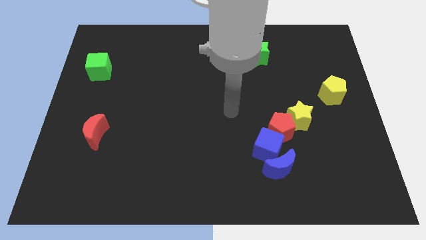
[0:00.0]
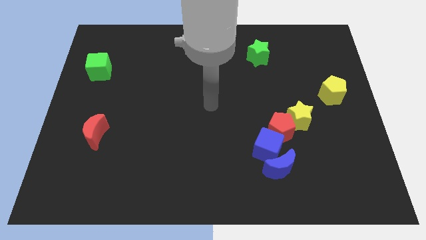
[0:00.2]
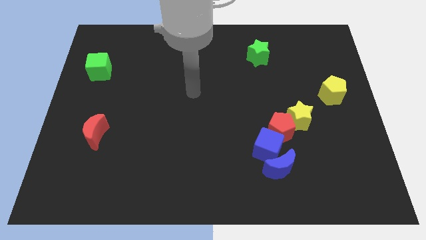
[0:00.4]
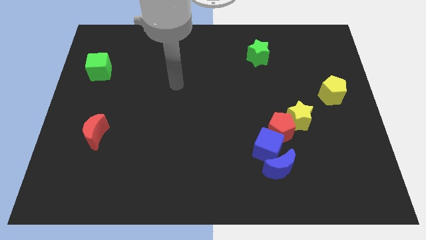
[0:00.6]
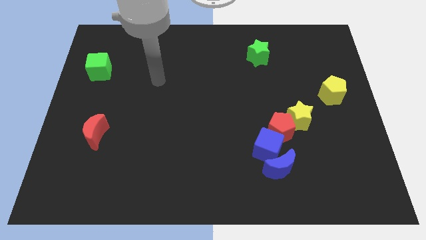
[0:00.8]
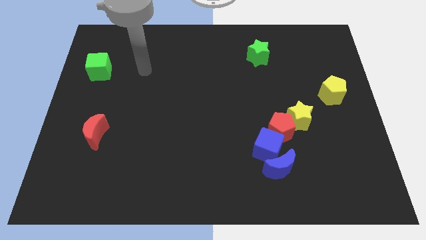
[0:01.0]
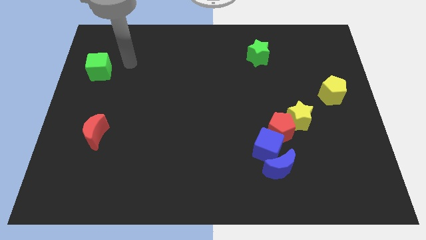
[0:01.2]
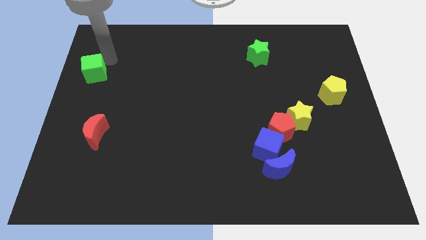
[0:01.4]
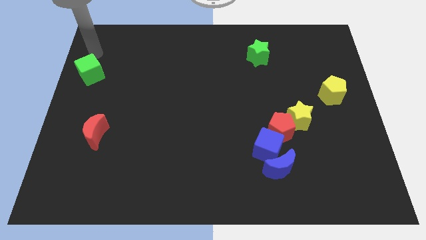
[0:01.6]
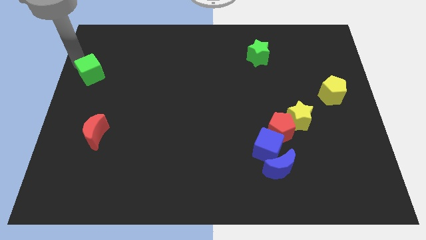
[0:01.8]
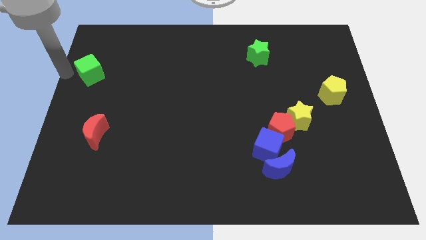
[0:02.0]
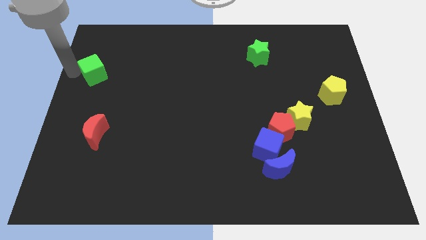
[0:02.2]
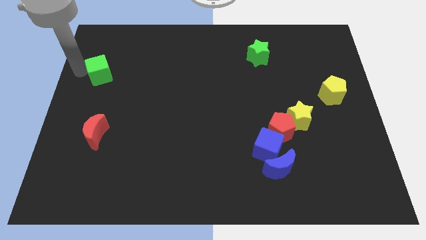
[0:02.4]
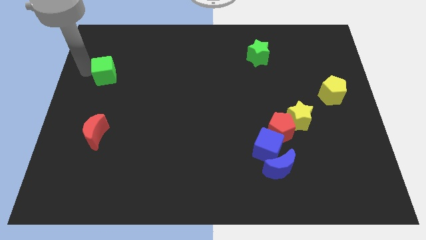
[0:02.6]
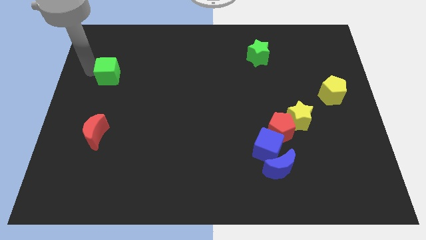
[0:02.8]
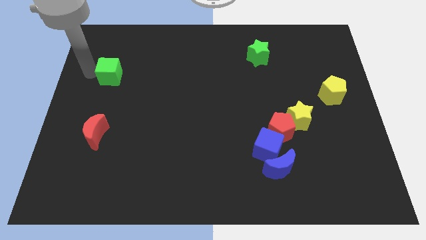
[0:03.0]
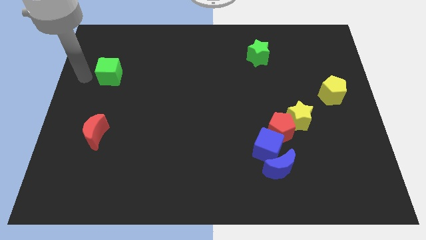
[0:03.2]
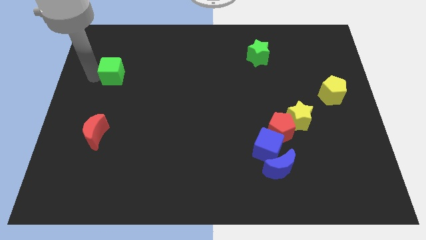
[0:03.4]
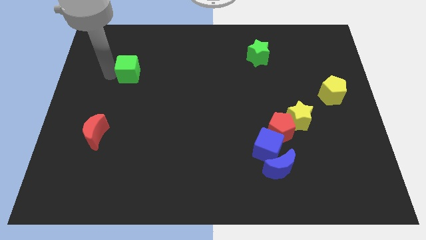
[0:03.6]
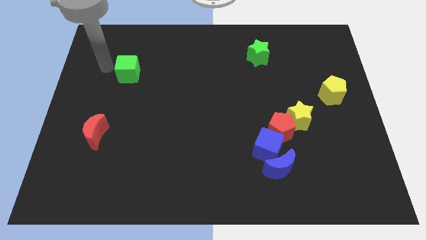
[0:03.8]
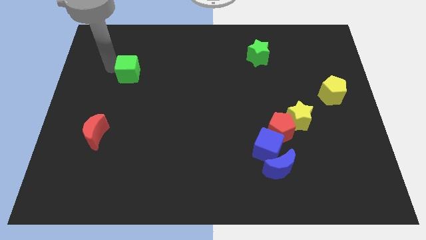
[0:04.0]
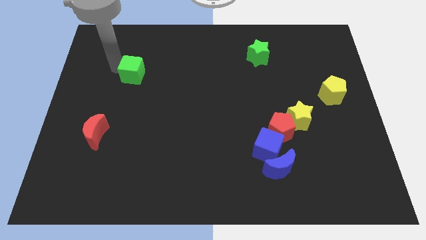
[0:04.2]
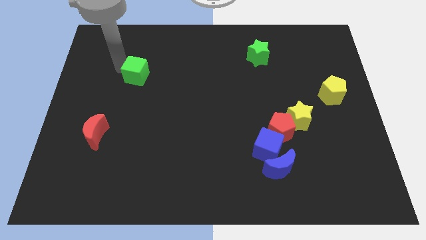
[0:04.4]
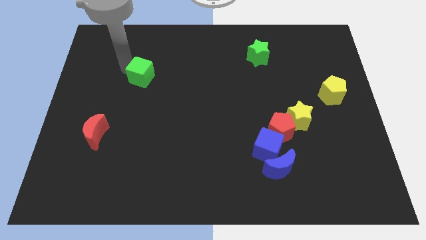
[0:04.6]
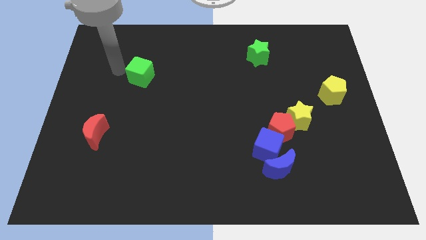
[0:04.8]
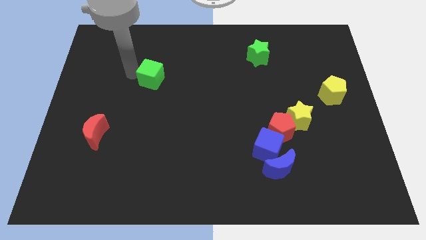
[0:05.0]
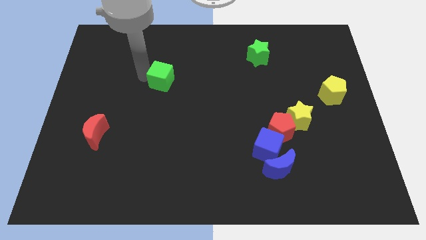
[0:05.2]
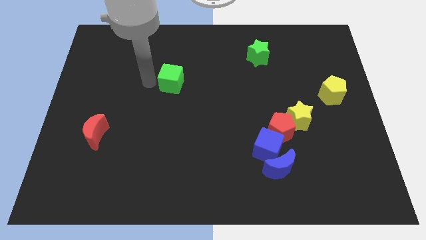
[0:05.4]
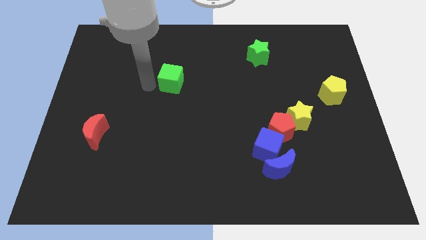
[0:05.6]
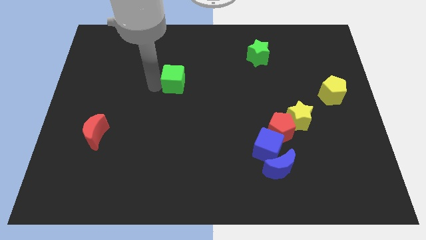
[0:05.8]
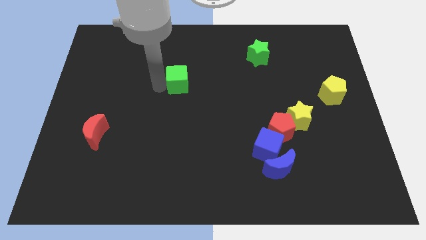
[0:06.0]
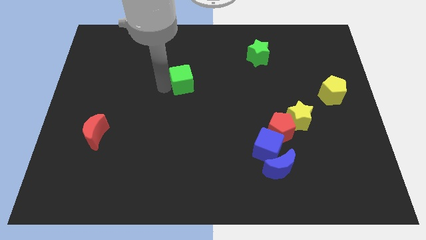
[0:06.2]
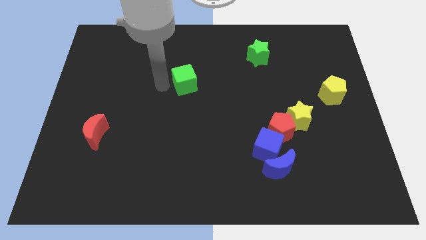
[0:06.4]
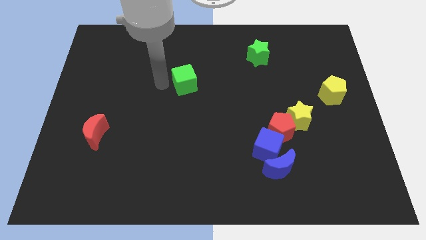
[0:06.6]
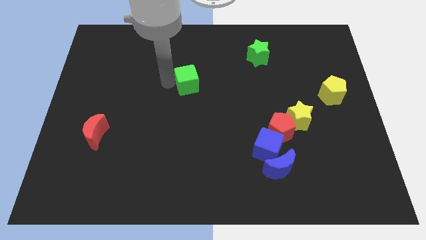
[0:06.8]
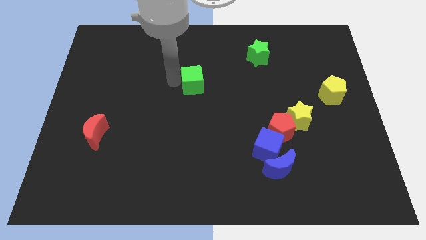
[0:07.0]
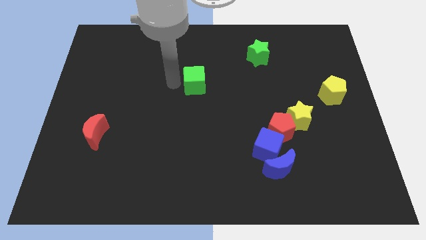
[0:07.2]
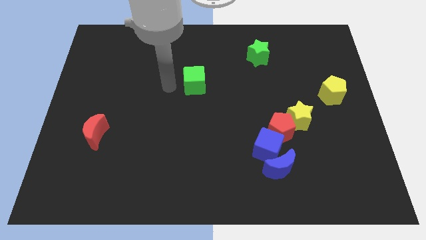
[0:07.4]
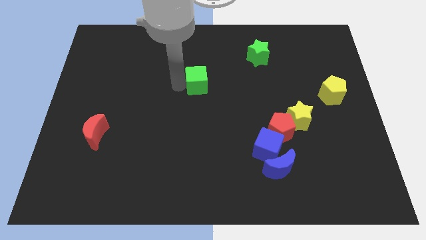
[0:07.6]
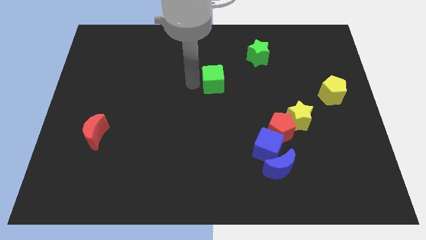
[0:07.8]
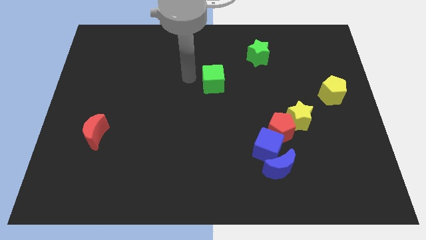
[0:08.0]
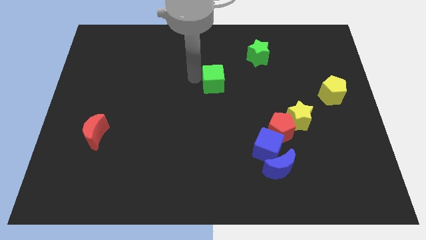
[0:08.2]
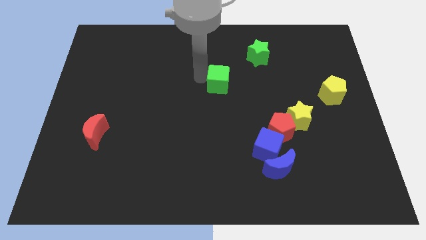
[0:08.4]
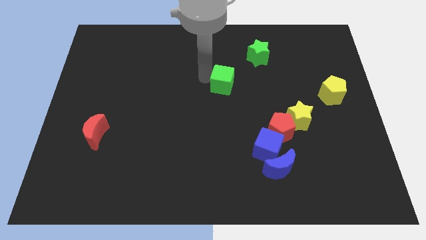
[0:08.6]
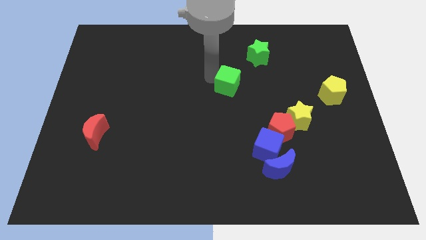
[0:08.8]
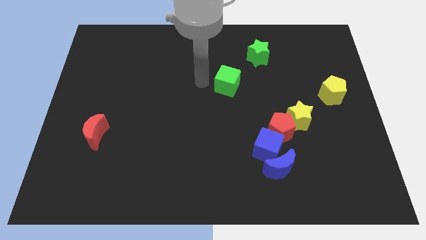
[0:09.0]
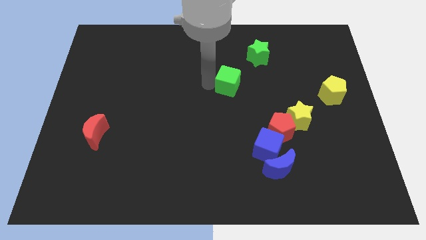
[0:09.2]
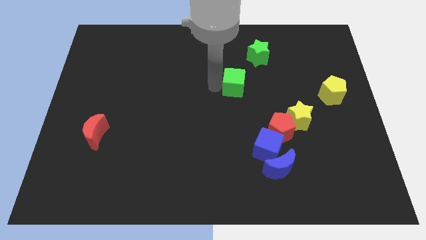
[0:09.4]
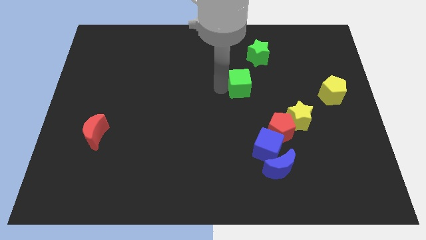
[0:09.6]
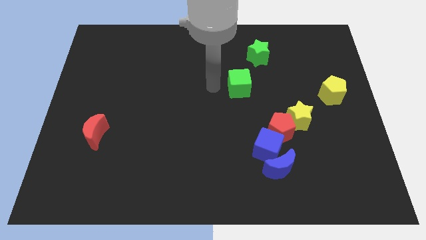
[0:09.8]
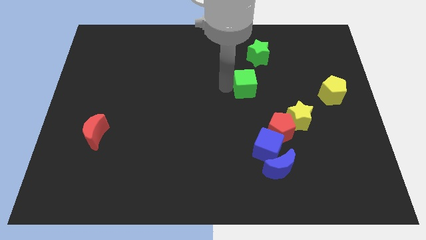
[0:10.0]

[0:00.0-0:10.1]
slide the green cube to the bottom side of the green star
